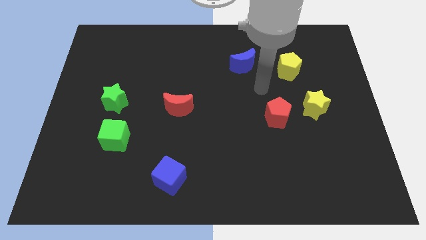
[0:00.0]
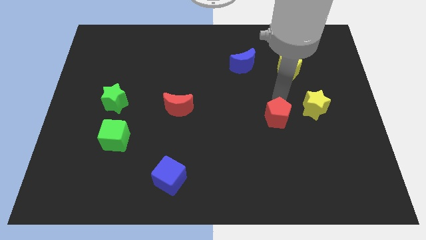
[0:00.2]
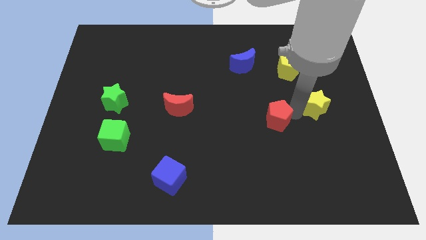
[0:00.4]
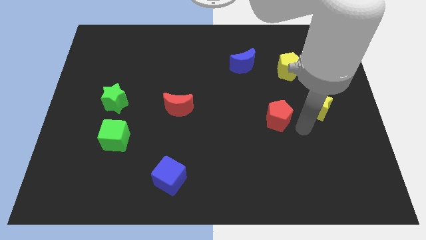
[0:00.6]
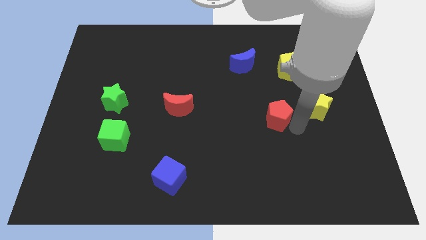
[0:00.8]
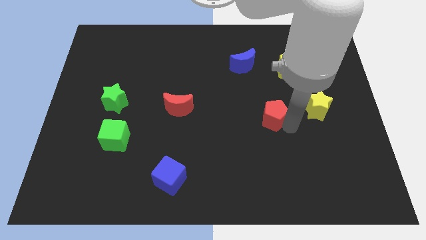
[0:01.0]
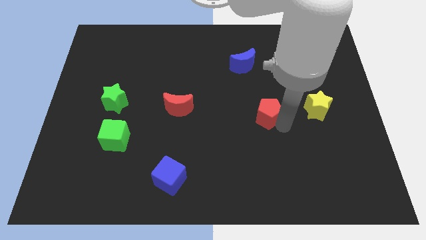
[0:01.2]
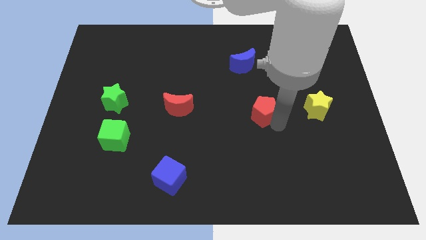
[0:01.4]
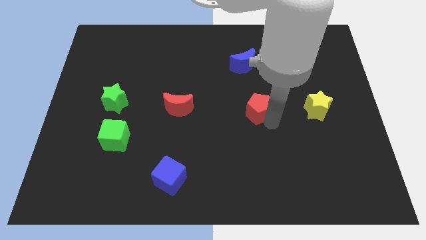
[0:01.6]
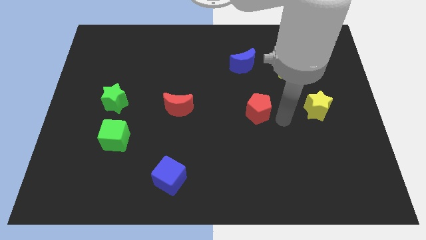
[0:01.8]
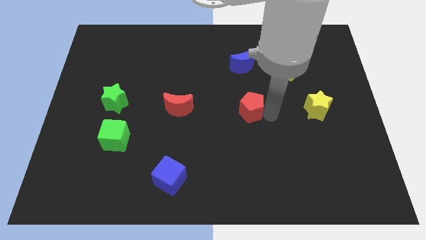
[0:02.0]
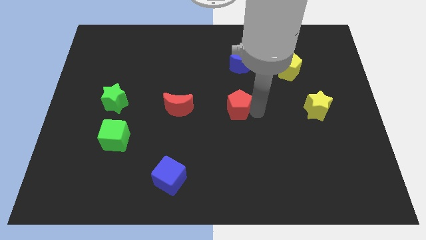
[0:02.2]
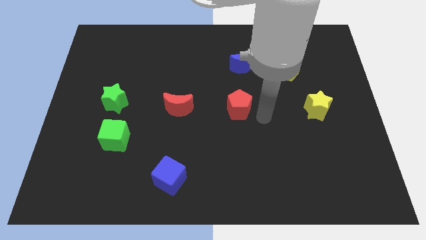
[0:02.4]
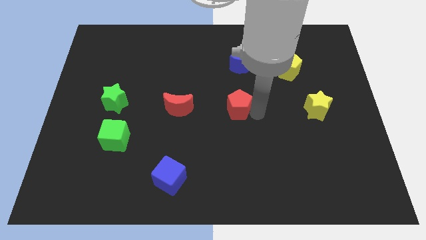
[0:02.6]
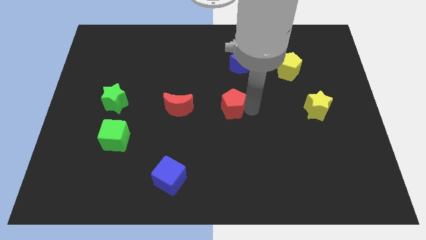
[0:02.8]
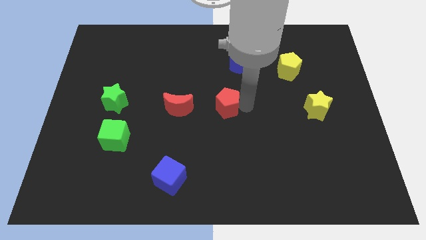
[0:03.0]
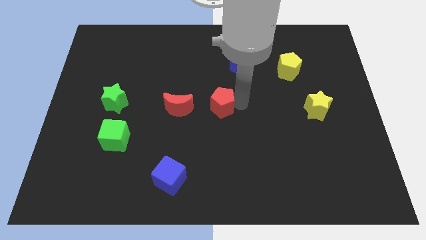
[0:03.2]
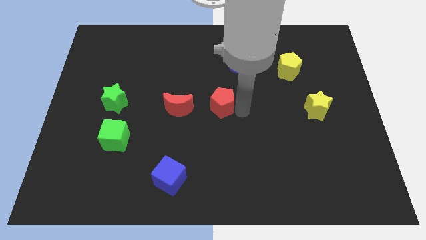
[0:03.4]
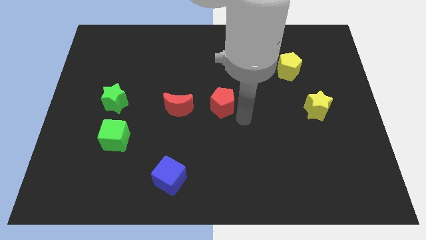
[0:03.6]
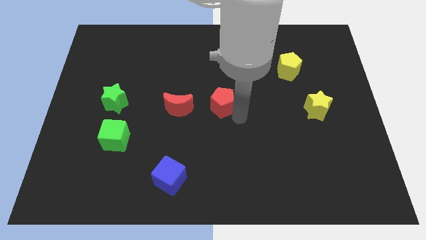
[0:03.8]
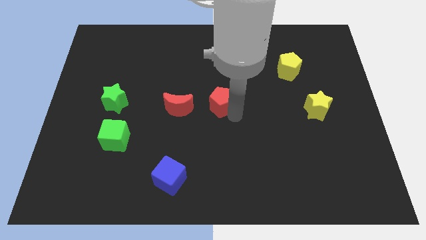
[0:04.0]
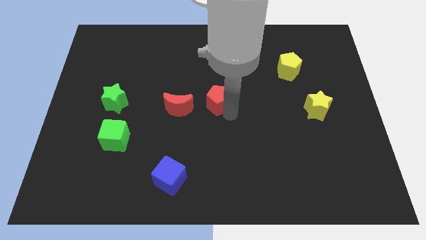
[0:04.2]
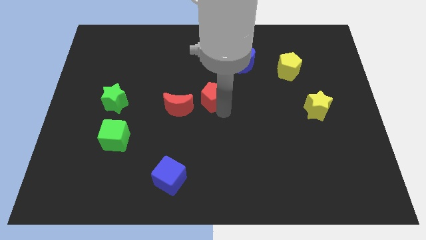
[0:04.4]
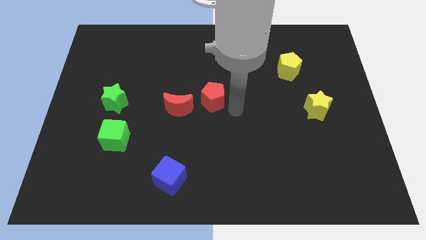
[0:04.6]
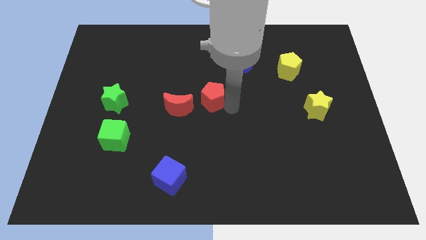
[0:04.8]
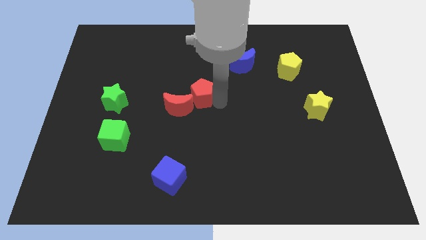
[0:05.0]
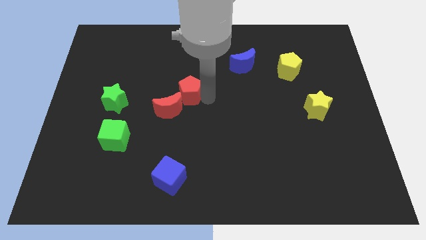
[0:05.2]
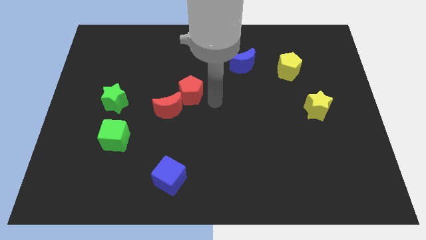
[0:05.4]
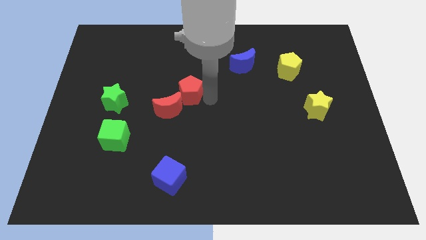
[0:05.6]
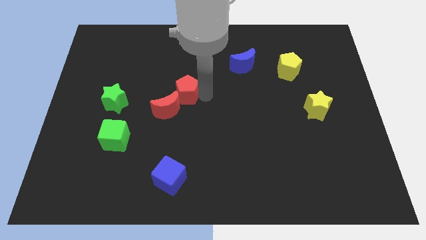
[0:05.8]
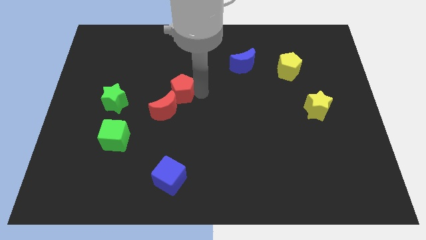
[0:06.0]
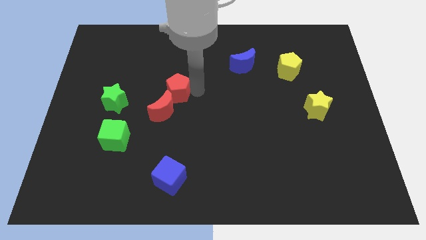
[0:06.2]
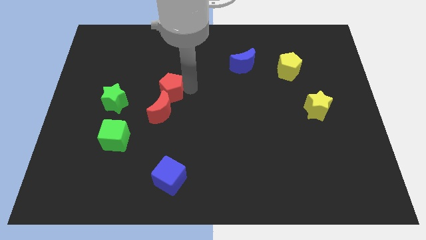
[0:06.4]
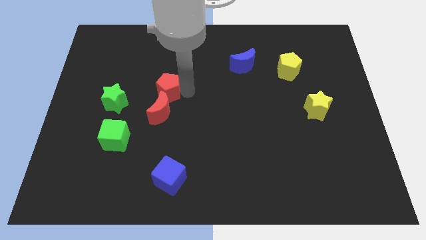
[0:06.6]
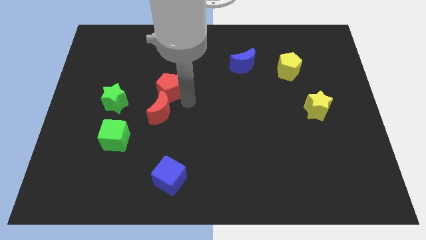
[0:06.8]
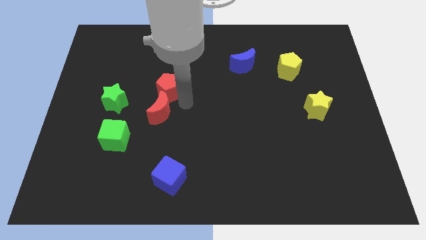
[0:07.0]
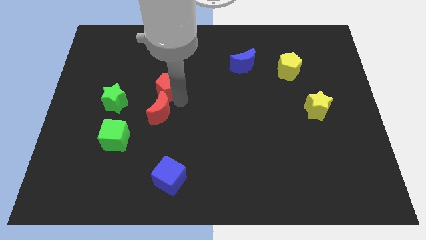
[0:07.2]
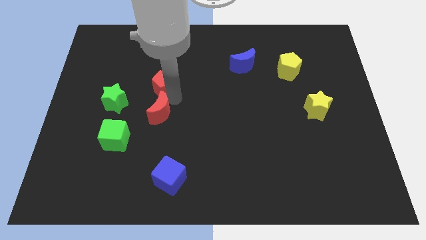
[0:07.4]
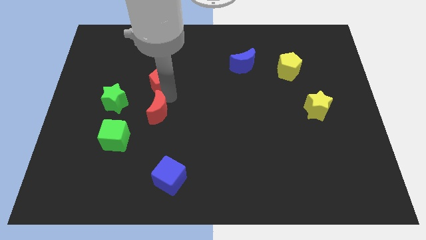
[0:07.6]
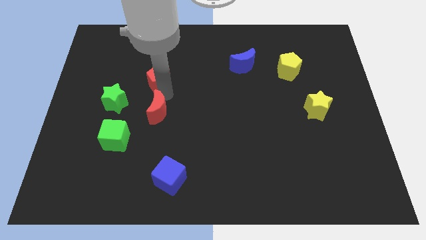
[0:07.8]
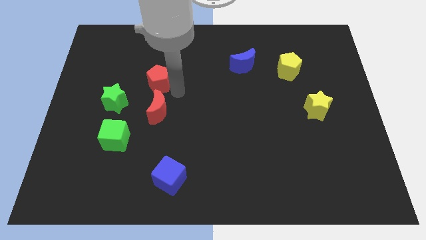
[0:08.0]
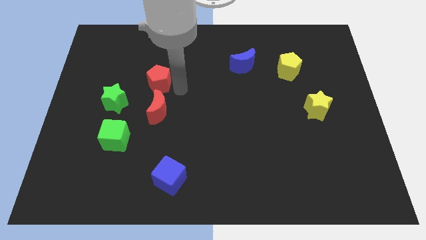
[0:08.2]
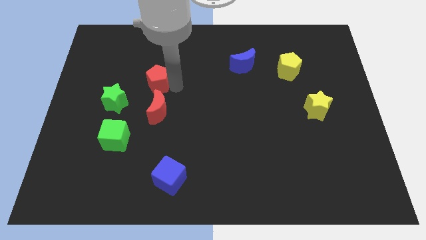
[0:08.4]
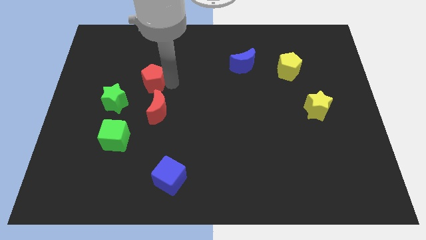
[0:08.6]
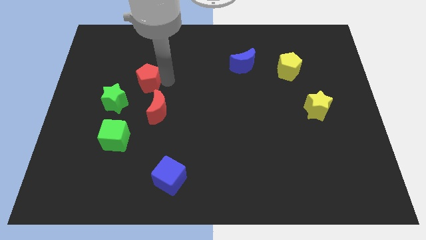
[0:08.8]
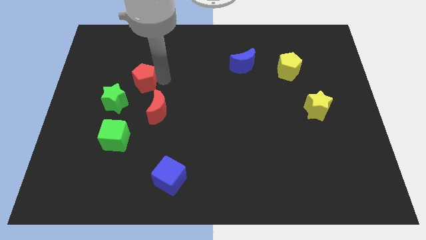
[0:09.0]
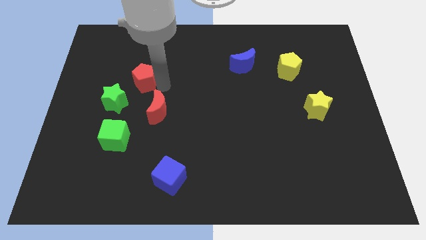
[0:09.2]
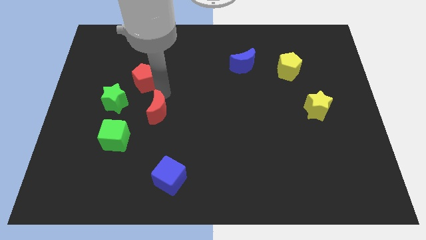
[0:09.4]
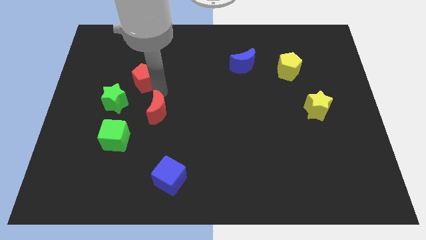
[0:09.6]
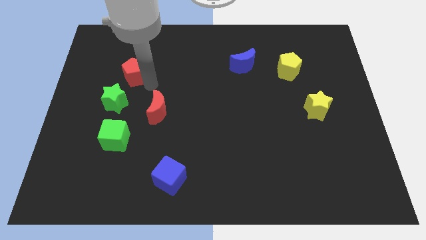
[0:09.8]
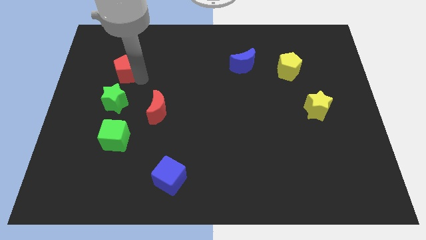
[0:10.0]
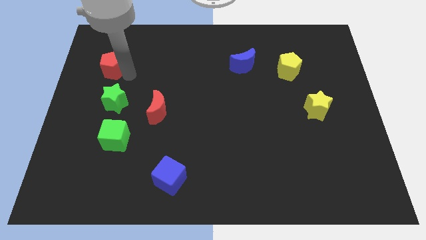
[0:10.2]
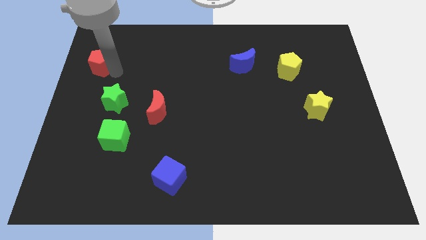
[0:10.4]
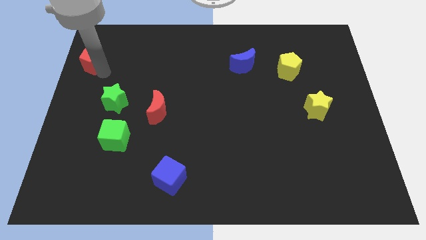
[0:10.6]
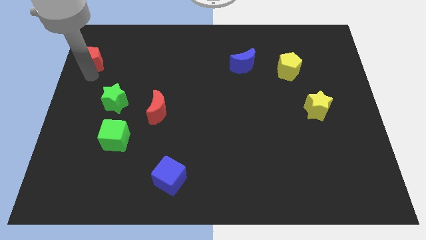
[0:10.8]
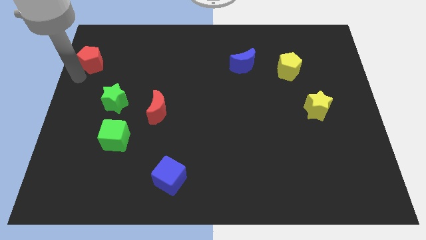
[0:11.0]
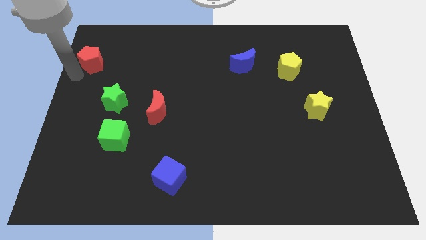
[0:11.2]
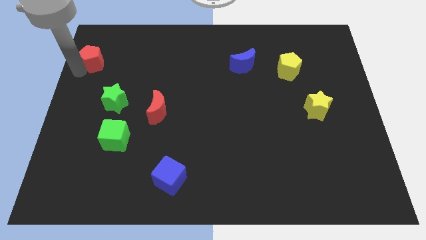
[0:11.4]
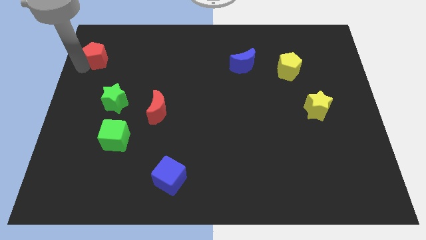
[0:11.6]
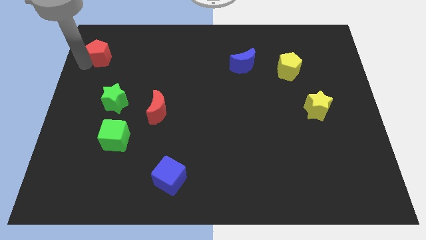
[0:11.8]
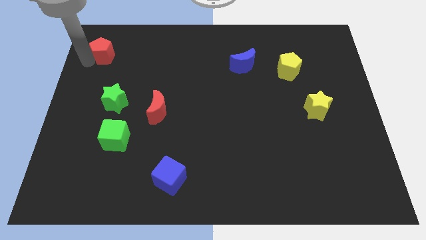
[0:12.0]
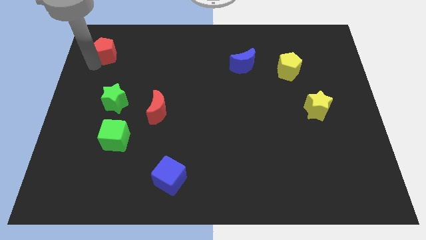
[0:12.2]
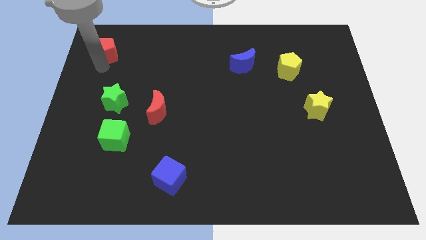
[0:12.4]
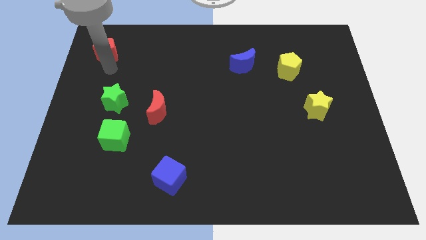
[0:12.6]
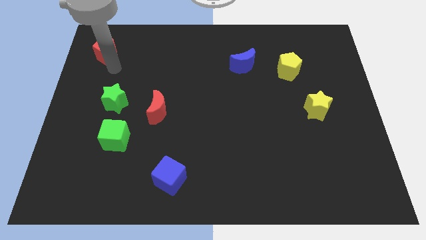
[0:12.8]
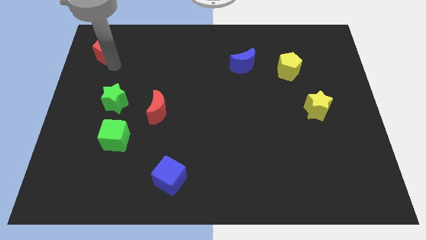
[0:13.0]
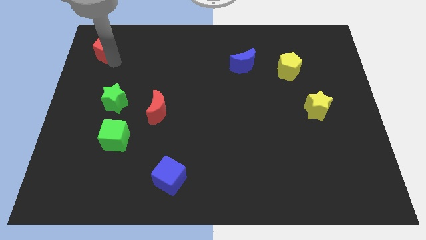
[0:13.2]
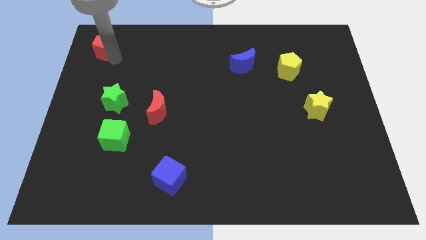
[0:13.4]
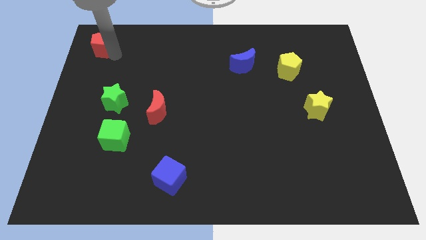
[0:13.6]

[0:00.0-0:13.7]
put the red pentagon to the top left corner
